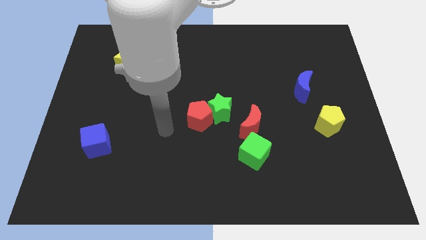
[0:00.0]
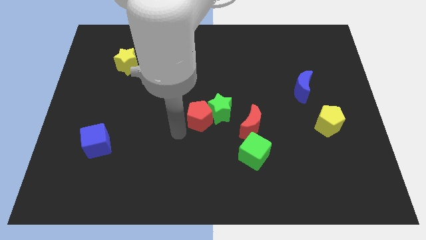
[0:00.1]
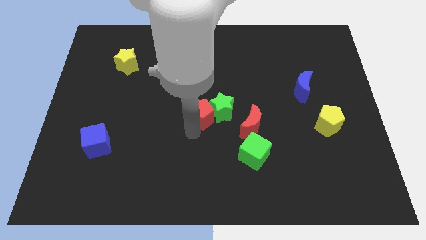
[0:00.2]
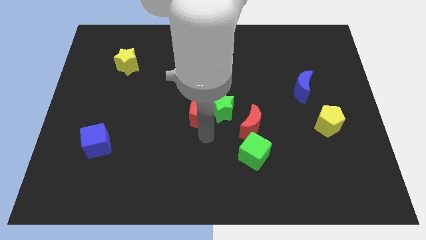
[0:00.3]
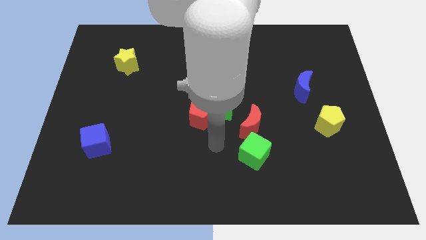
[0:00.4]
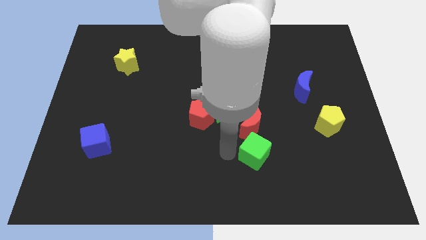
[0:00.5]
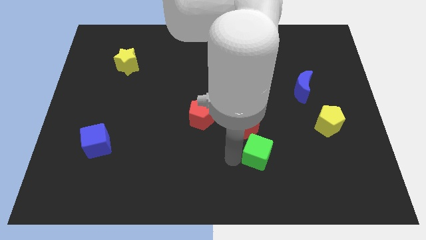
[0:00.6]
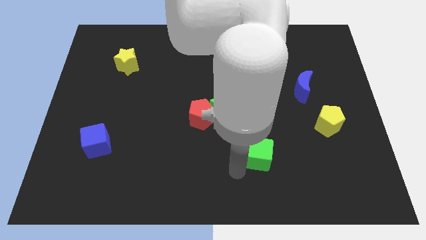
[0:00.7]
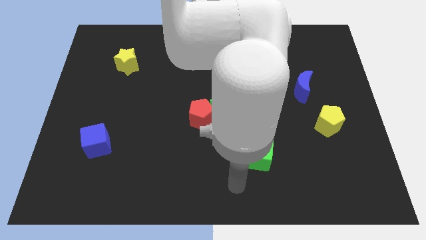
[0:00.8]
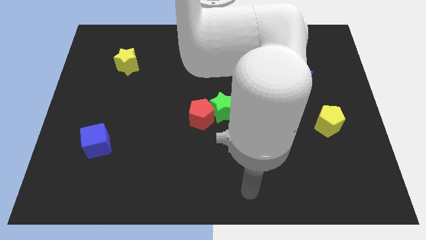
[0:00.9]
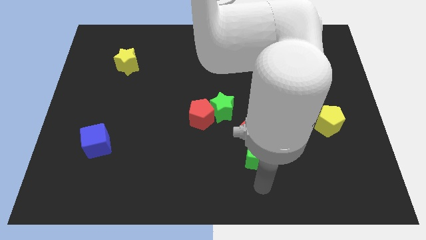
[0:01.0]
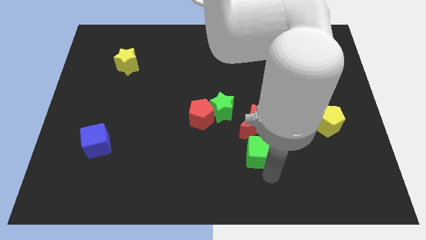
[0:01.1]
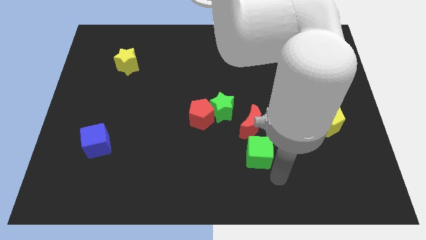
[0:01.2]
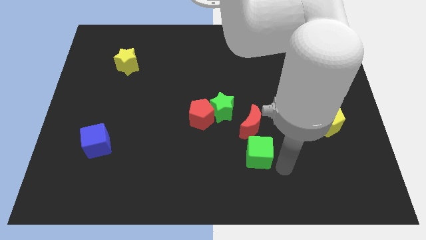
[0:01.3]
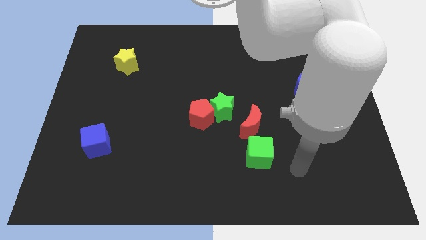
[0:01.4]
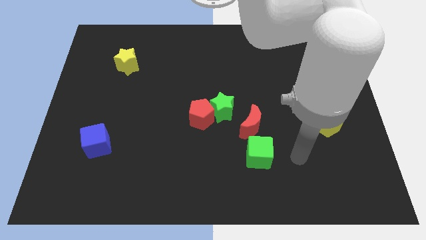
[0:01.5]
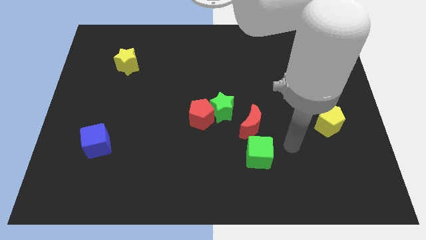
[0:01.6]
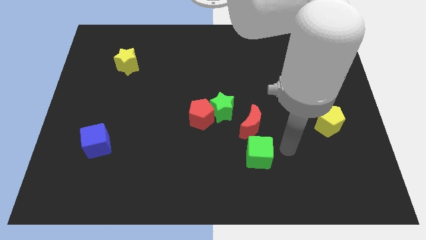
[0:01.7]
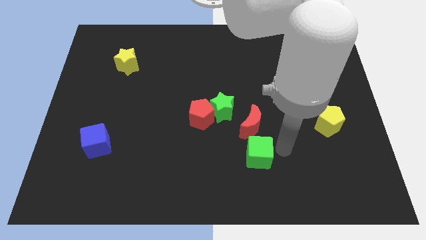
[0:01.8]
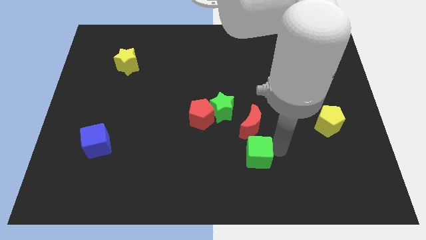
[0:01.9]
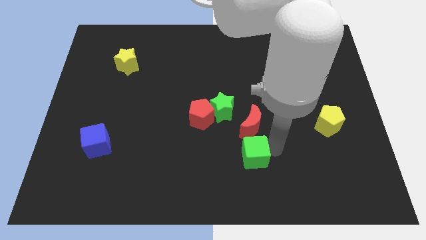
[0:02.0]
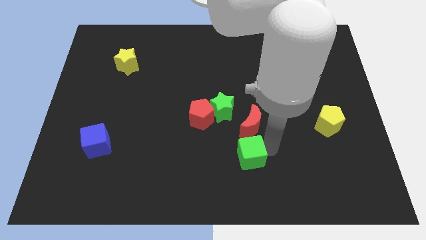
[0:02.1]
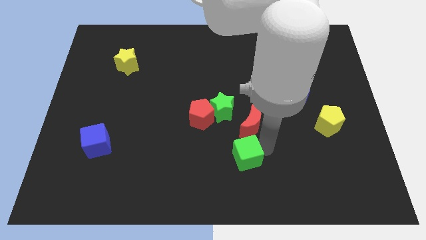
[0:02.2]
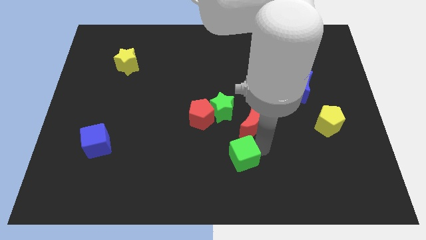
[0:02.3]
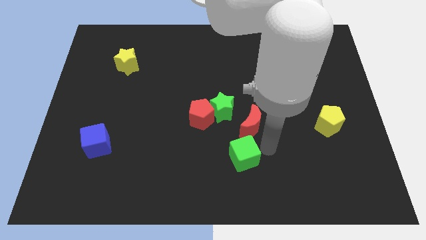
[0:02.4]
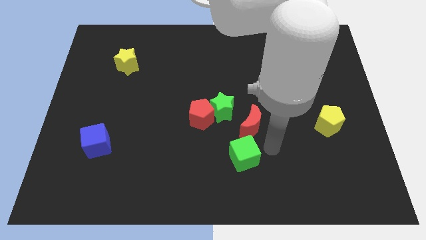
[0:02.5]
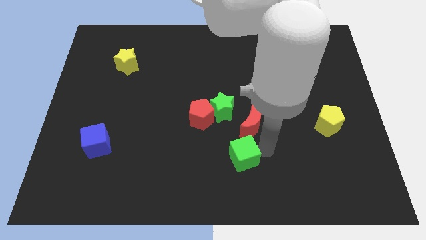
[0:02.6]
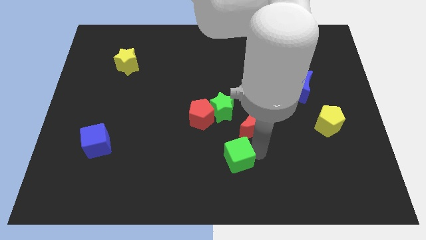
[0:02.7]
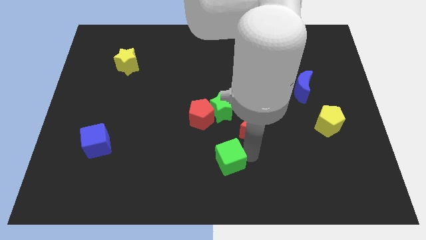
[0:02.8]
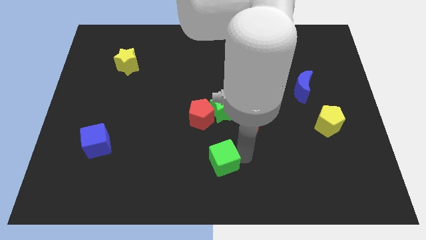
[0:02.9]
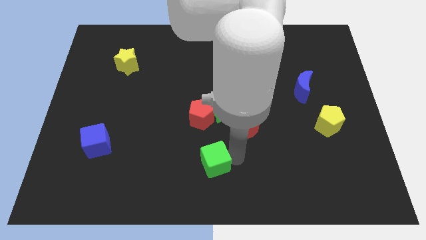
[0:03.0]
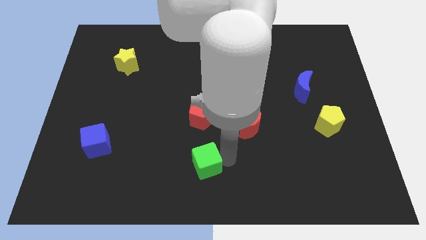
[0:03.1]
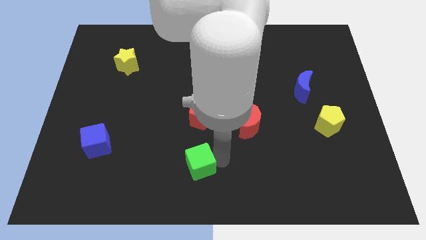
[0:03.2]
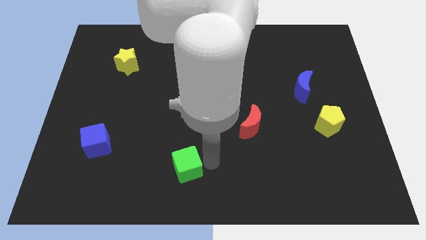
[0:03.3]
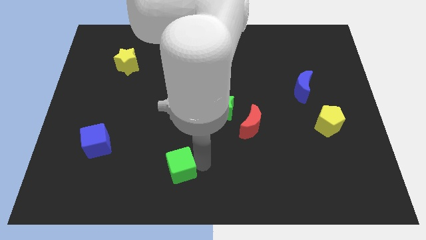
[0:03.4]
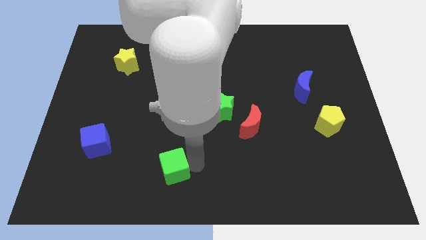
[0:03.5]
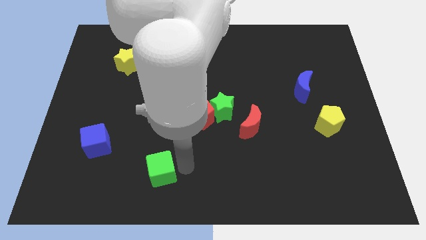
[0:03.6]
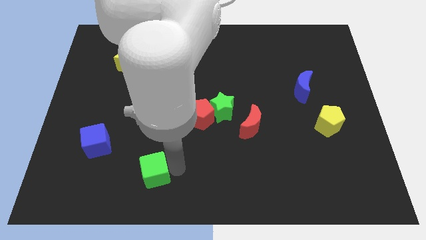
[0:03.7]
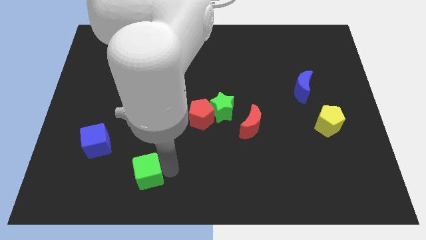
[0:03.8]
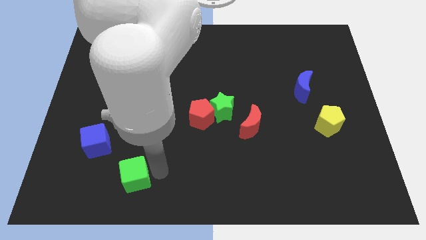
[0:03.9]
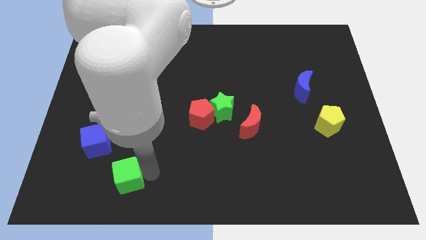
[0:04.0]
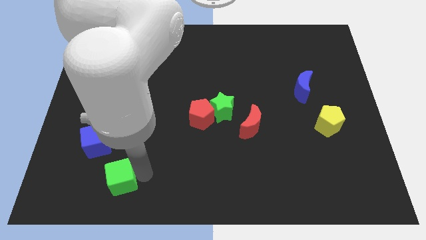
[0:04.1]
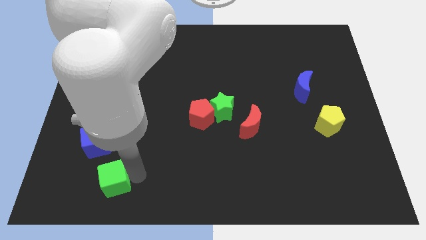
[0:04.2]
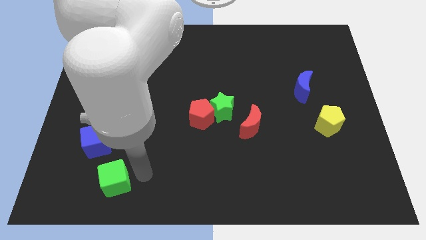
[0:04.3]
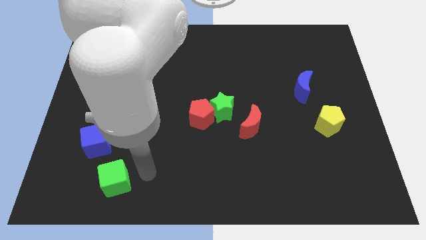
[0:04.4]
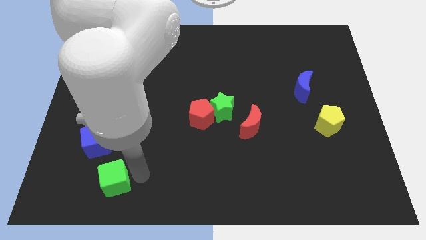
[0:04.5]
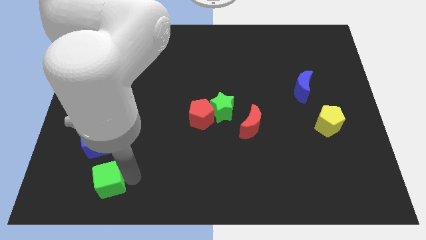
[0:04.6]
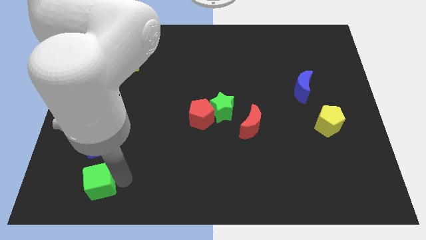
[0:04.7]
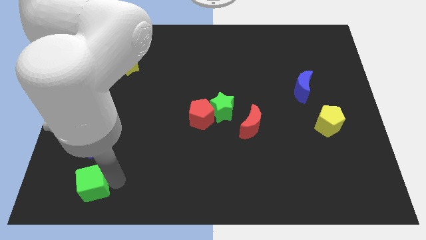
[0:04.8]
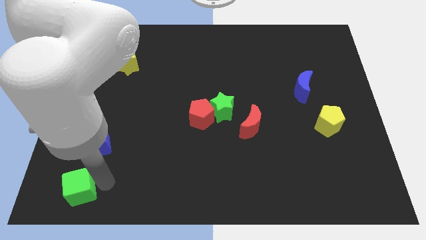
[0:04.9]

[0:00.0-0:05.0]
move the green cube to the lower left corner

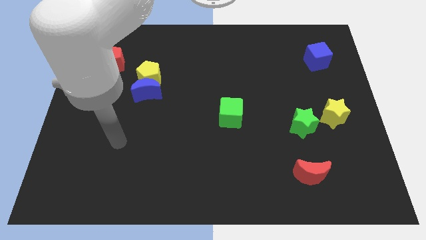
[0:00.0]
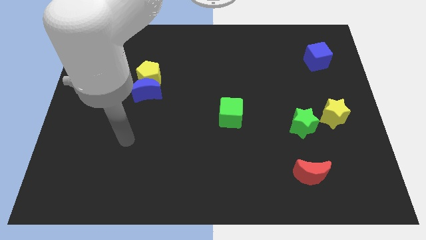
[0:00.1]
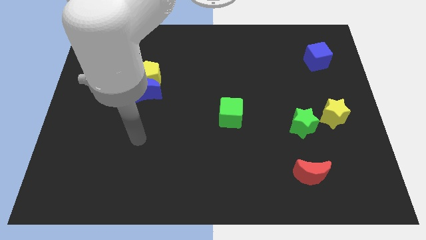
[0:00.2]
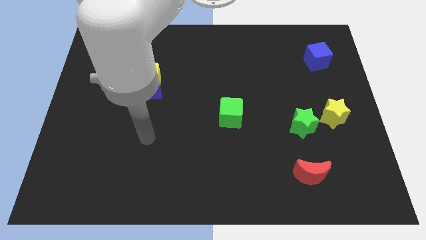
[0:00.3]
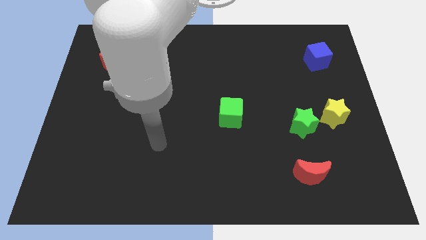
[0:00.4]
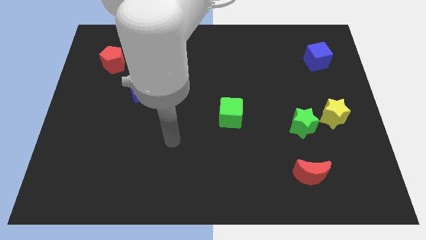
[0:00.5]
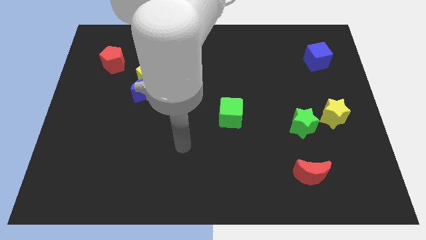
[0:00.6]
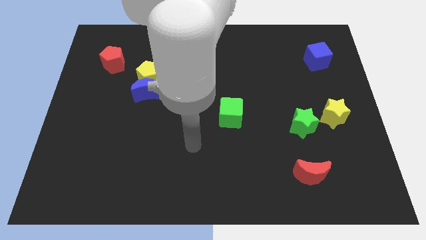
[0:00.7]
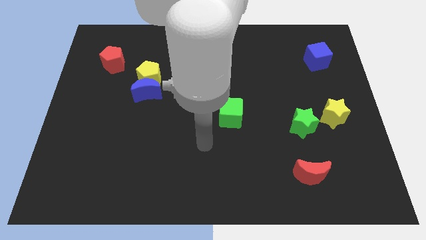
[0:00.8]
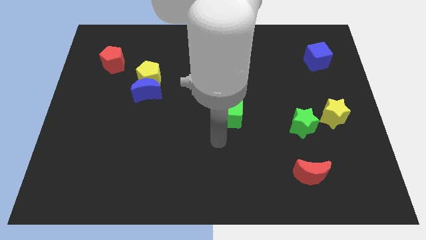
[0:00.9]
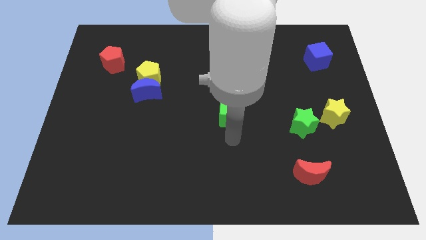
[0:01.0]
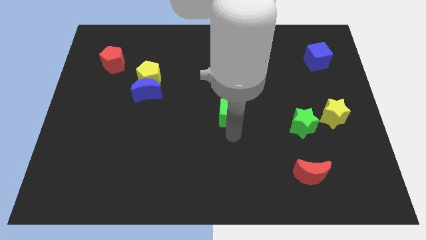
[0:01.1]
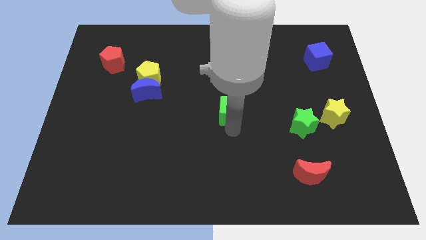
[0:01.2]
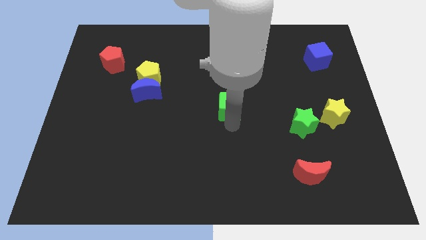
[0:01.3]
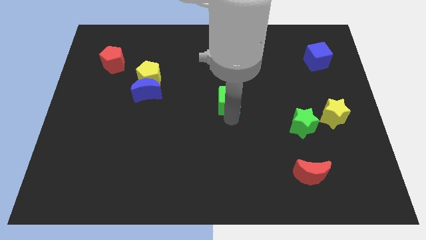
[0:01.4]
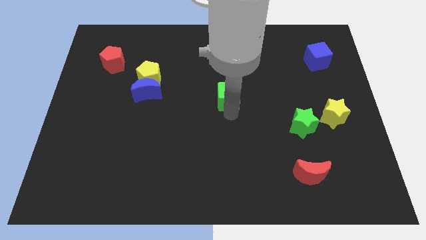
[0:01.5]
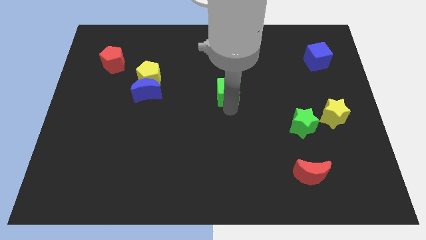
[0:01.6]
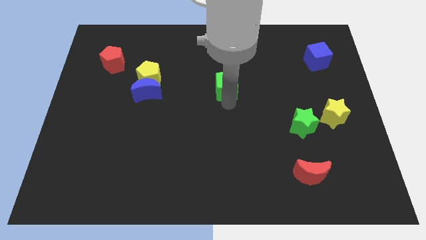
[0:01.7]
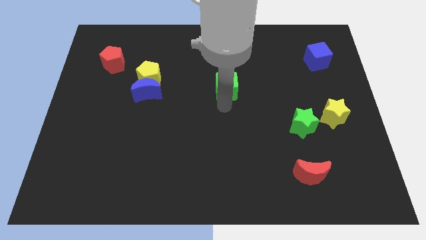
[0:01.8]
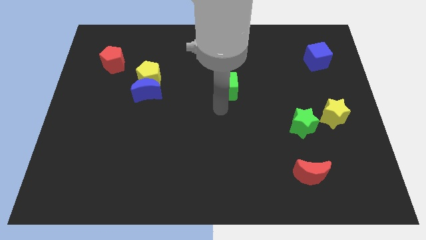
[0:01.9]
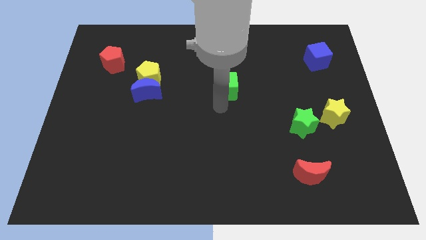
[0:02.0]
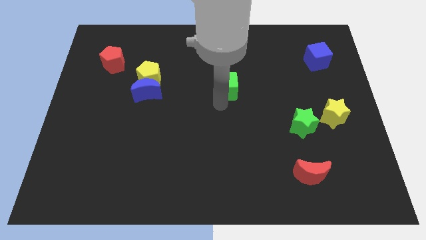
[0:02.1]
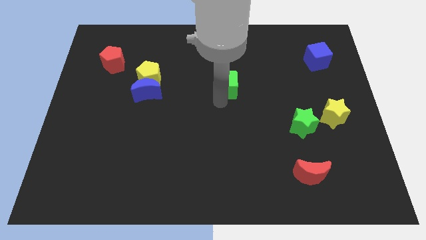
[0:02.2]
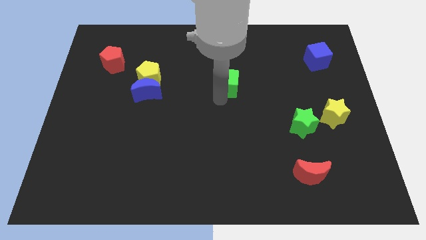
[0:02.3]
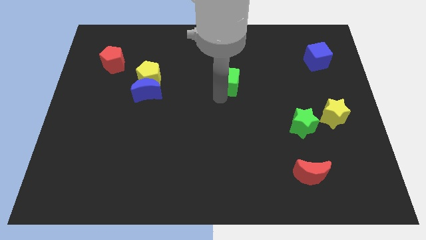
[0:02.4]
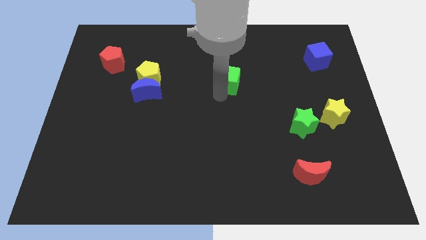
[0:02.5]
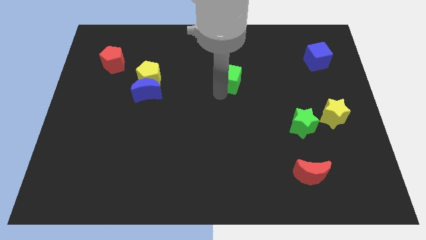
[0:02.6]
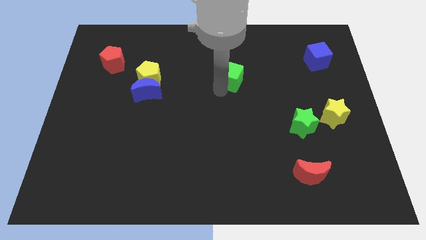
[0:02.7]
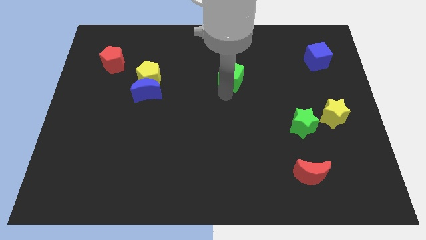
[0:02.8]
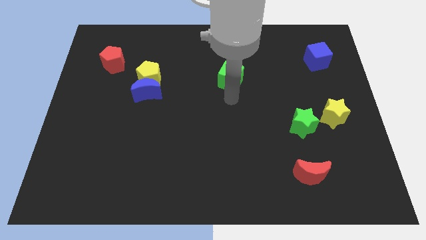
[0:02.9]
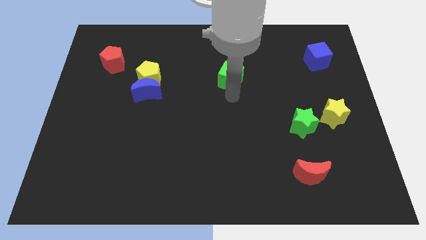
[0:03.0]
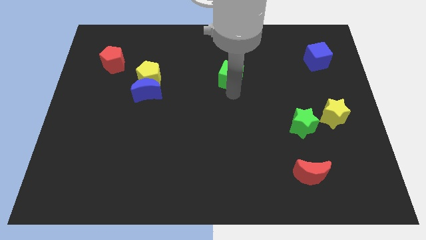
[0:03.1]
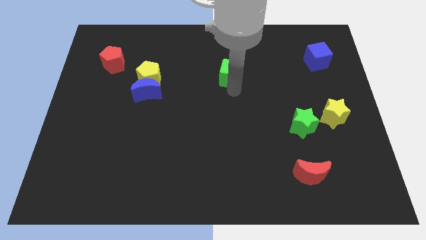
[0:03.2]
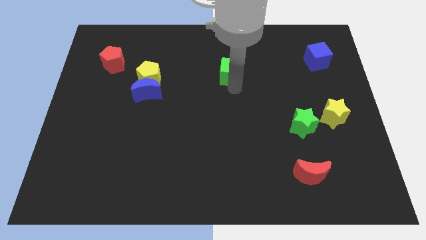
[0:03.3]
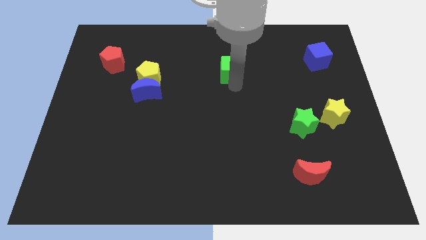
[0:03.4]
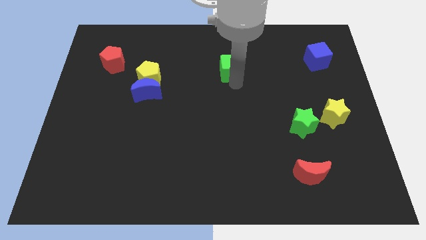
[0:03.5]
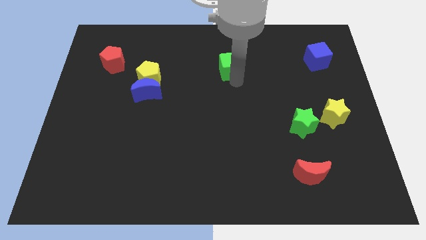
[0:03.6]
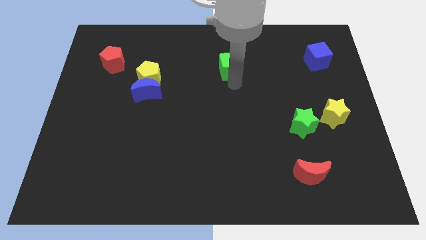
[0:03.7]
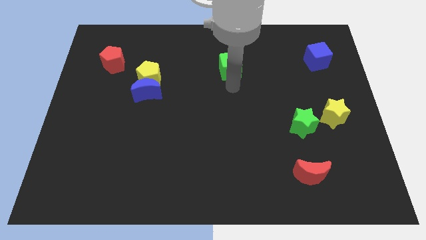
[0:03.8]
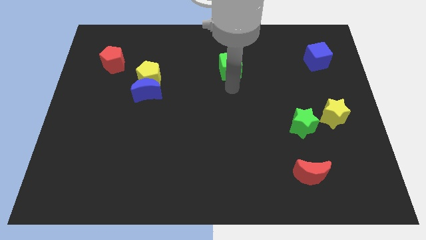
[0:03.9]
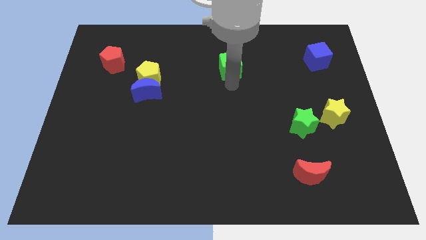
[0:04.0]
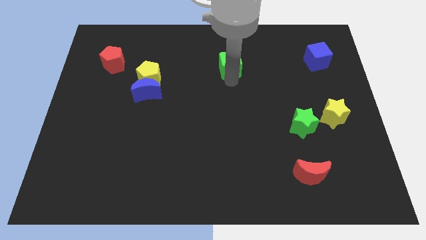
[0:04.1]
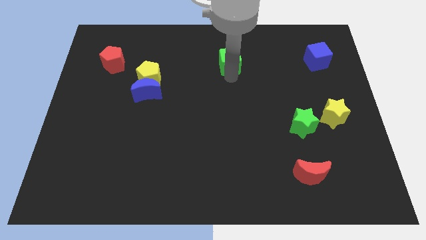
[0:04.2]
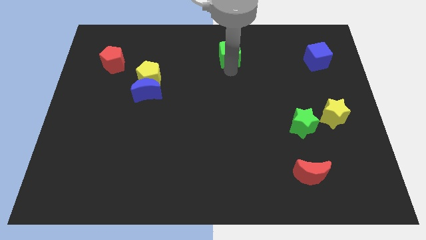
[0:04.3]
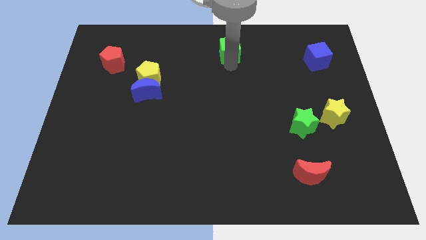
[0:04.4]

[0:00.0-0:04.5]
slide the green cube to the top side
